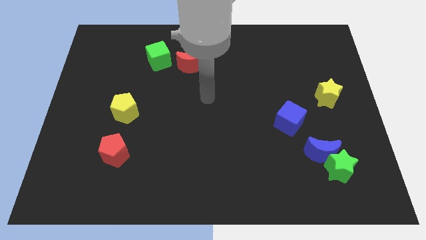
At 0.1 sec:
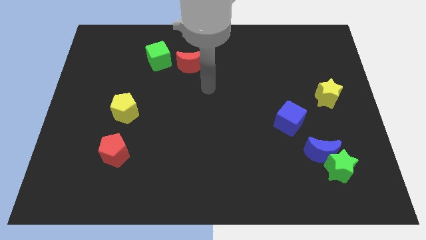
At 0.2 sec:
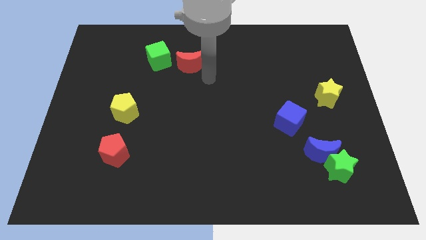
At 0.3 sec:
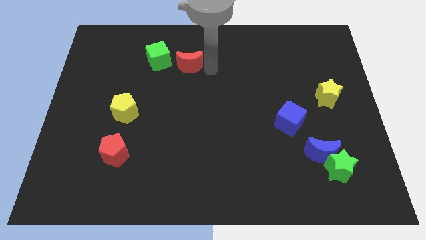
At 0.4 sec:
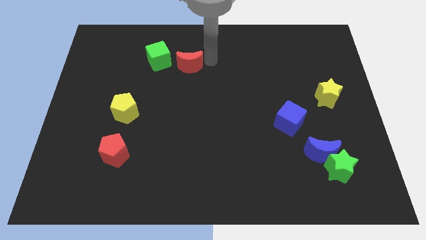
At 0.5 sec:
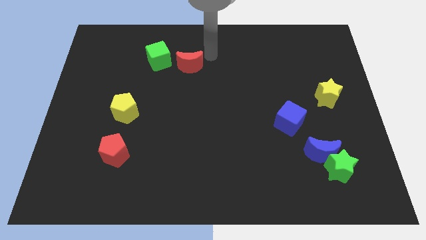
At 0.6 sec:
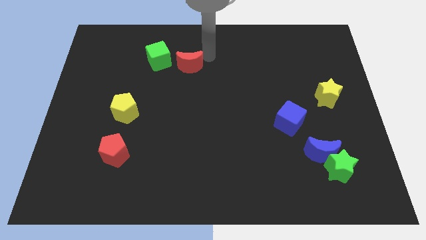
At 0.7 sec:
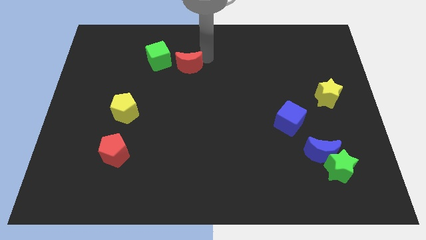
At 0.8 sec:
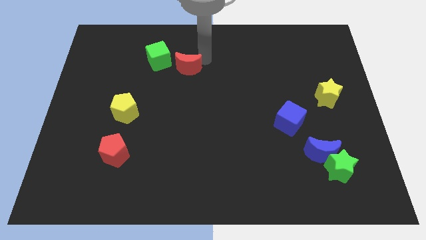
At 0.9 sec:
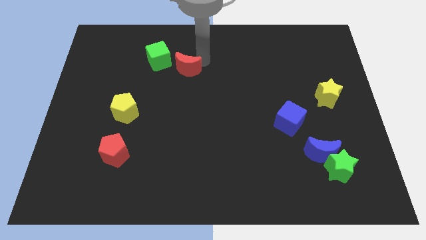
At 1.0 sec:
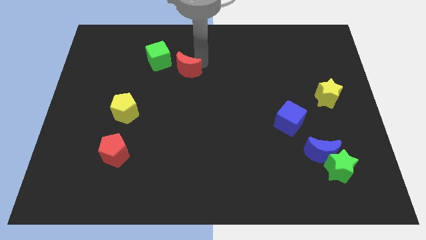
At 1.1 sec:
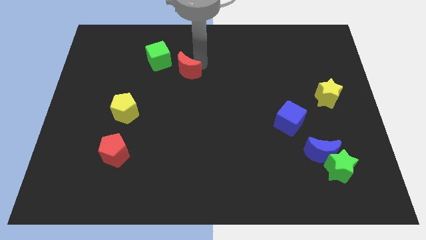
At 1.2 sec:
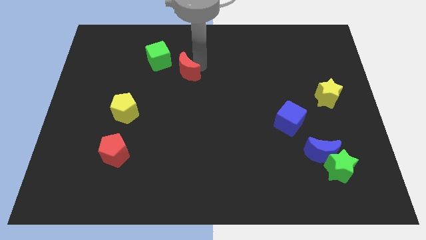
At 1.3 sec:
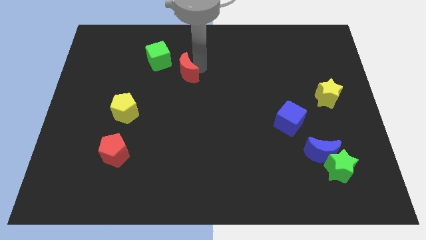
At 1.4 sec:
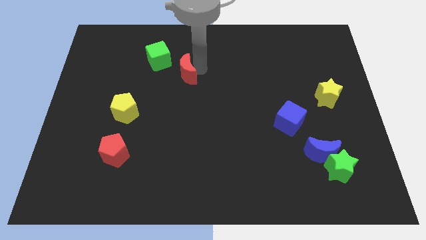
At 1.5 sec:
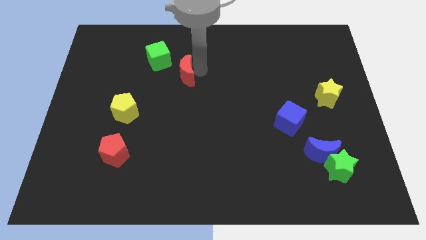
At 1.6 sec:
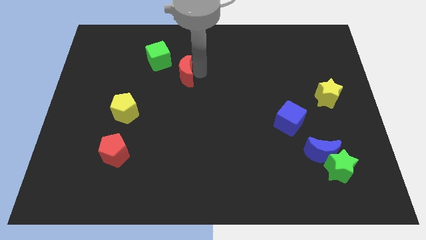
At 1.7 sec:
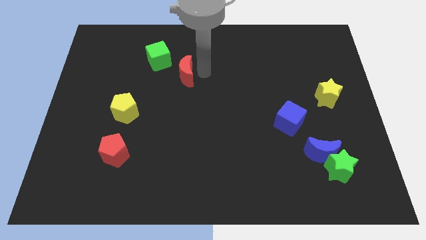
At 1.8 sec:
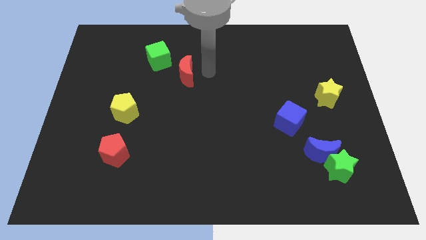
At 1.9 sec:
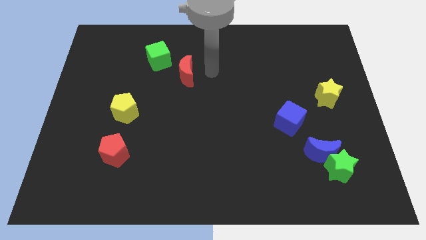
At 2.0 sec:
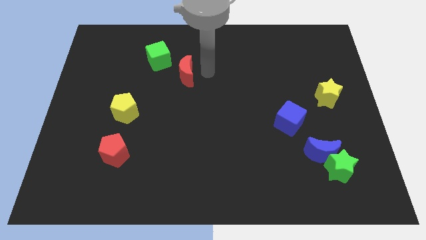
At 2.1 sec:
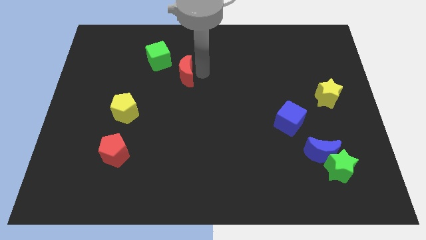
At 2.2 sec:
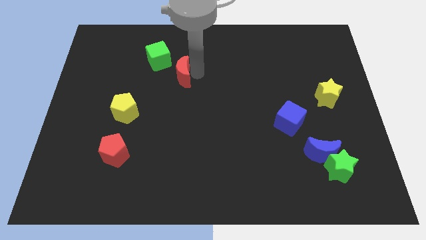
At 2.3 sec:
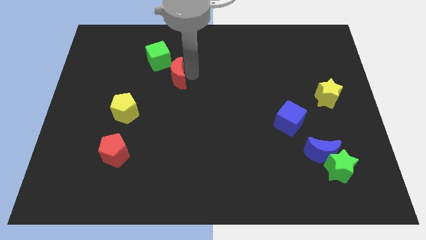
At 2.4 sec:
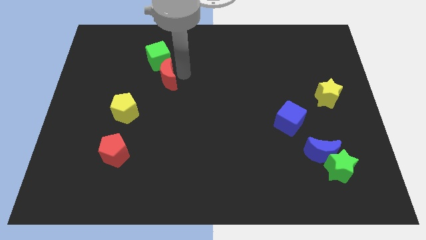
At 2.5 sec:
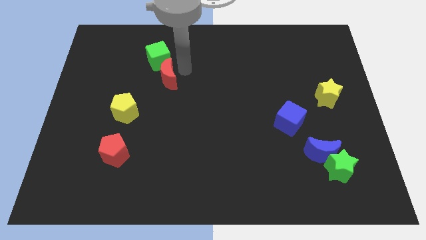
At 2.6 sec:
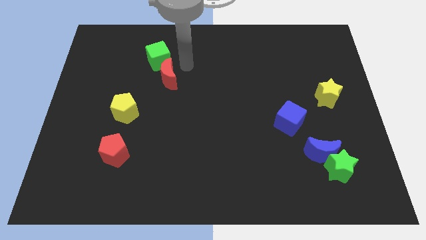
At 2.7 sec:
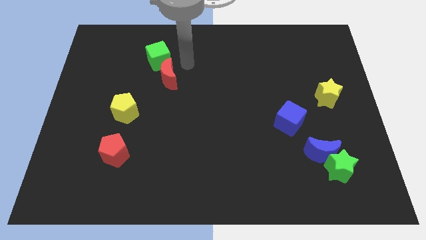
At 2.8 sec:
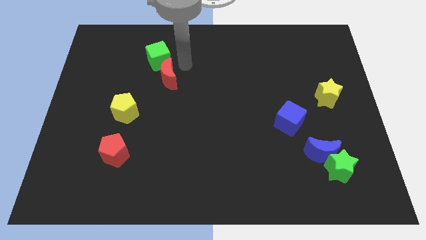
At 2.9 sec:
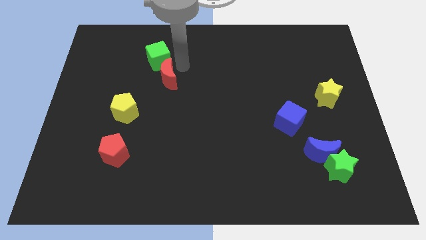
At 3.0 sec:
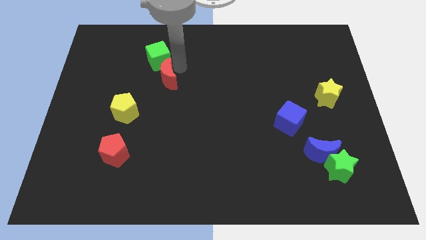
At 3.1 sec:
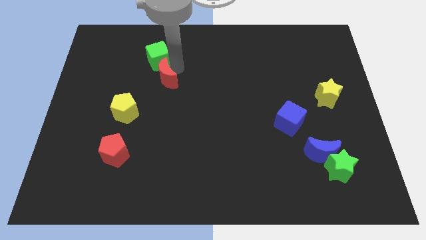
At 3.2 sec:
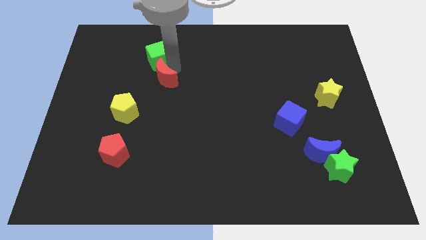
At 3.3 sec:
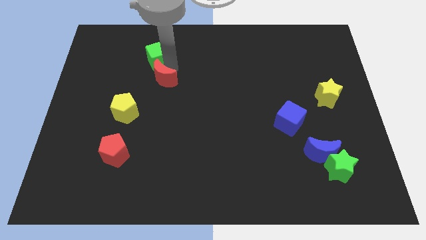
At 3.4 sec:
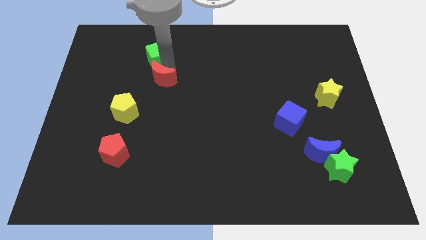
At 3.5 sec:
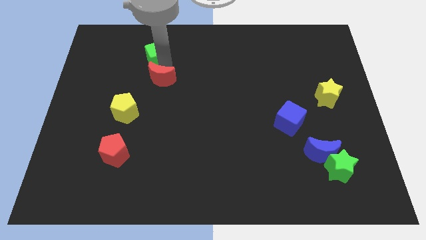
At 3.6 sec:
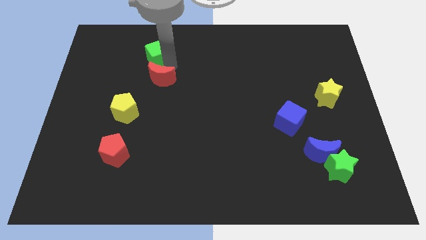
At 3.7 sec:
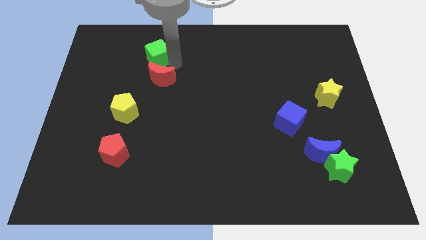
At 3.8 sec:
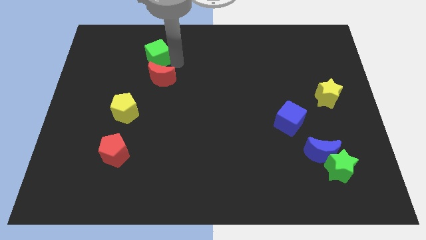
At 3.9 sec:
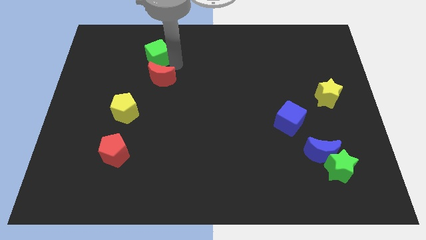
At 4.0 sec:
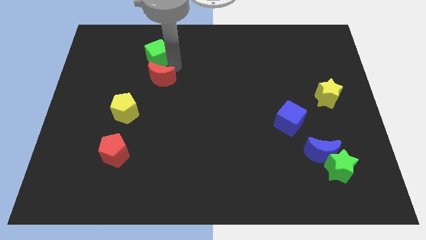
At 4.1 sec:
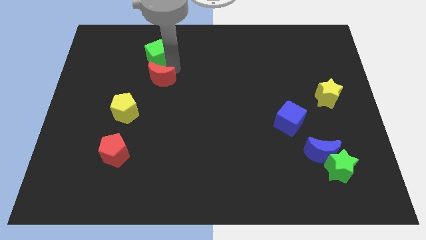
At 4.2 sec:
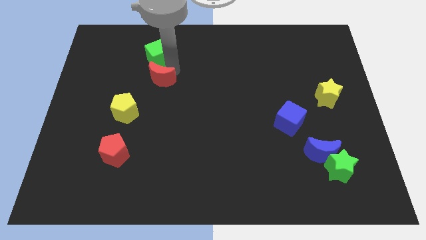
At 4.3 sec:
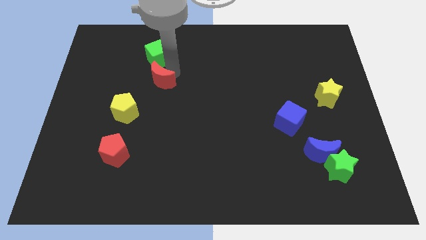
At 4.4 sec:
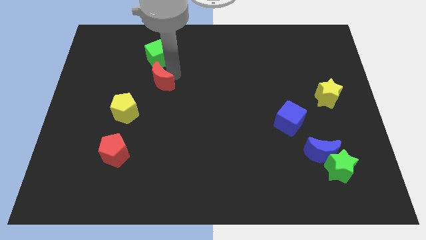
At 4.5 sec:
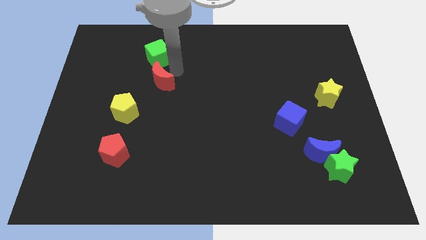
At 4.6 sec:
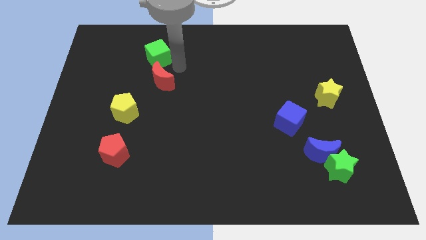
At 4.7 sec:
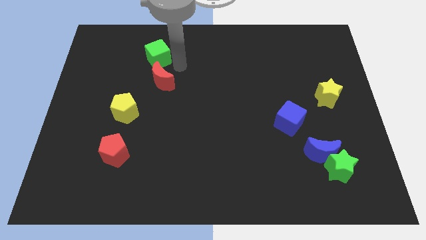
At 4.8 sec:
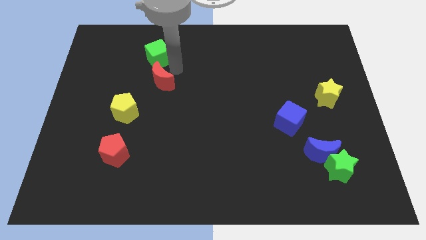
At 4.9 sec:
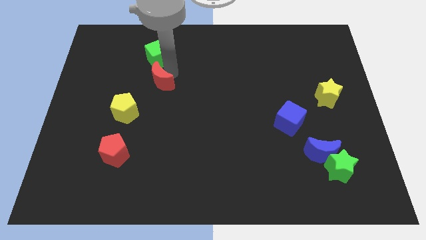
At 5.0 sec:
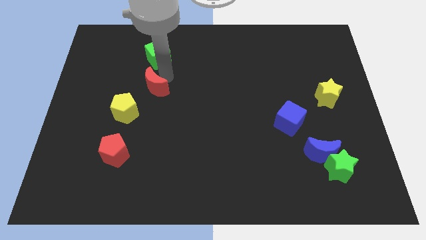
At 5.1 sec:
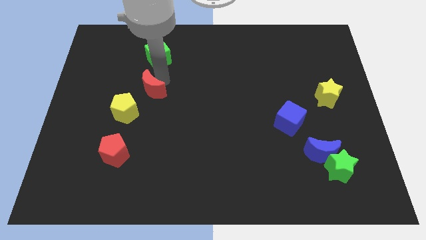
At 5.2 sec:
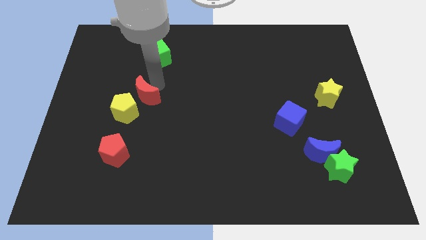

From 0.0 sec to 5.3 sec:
push the red moon next to the yellow pentagon

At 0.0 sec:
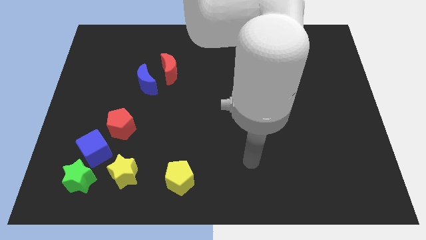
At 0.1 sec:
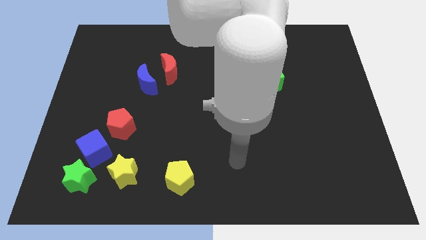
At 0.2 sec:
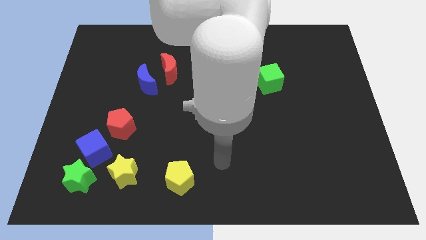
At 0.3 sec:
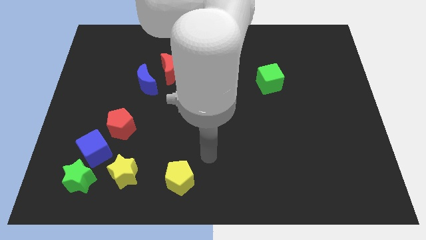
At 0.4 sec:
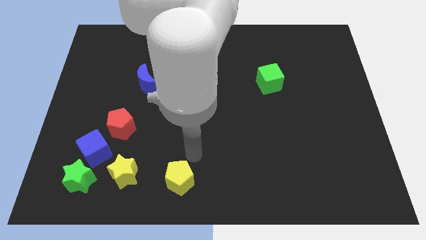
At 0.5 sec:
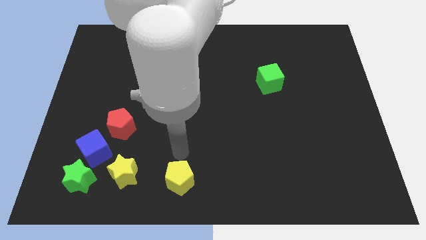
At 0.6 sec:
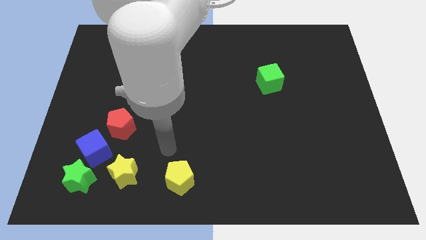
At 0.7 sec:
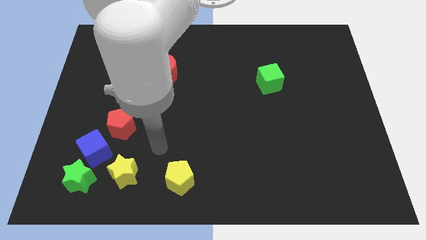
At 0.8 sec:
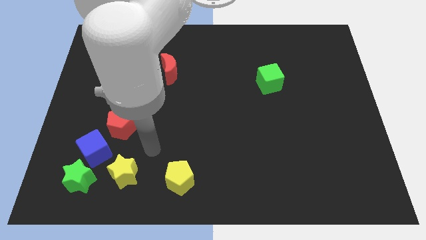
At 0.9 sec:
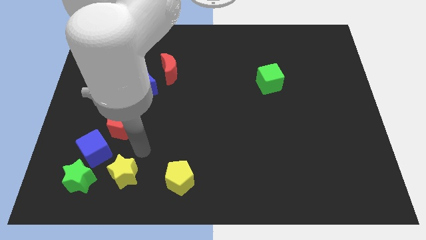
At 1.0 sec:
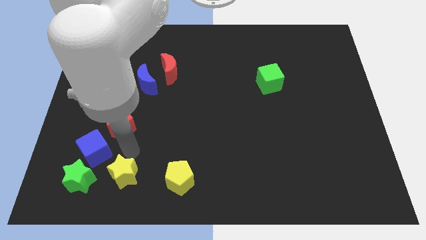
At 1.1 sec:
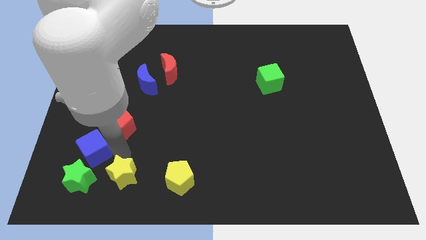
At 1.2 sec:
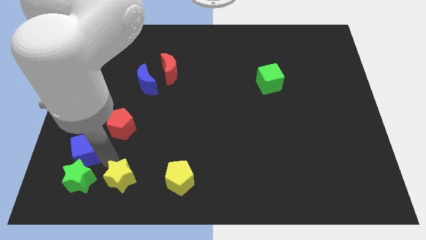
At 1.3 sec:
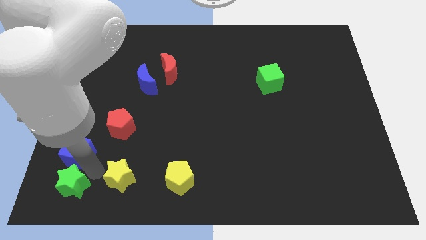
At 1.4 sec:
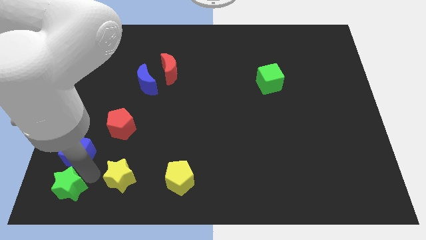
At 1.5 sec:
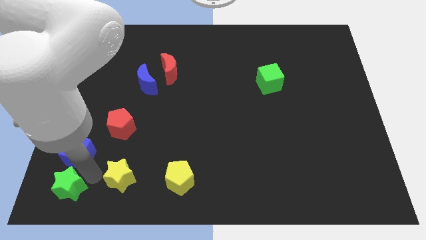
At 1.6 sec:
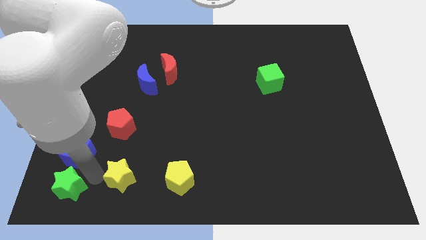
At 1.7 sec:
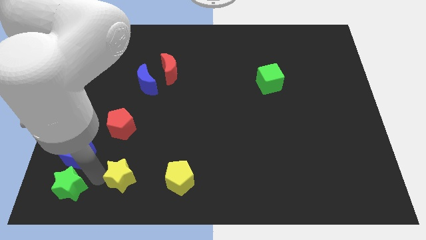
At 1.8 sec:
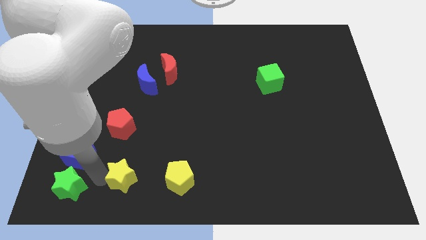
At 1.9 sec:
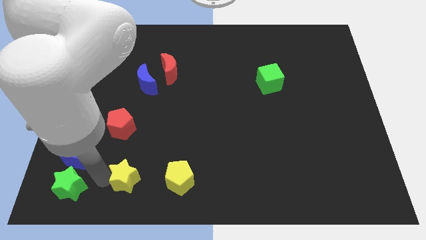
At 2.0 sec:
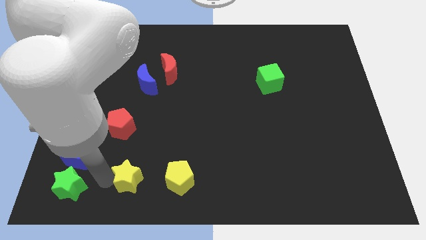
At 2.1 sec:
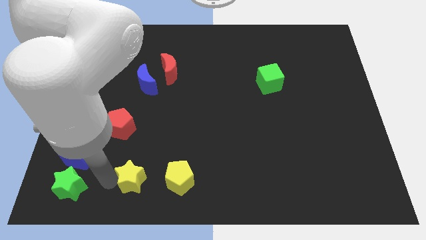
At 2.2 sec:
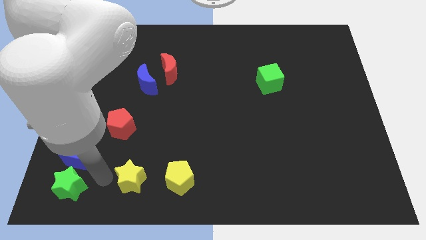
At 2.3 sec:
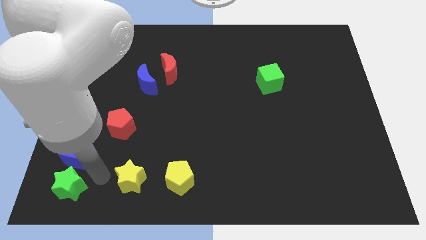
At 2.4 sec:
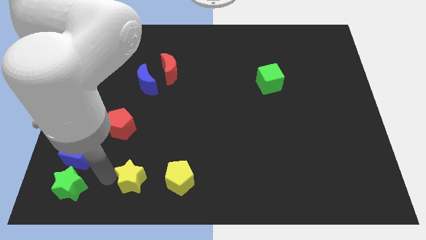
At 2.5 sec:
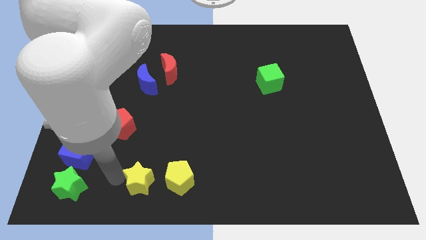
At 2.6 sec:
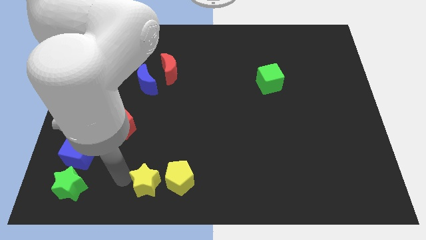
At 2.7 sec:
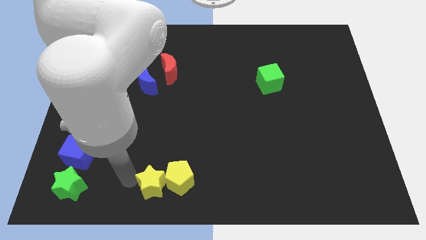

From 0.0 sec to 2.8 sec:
move the yellow star to the yellow pentagon
